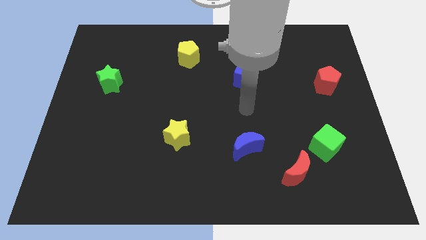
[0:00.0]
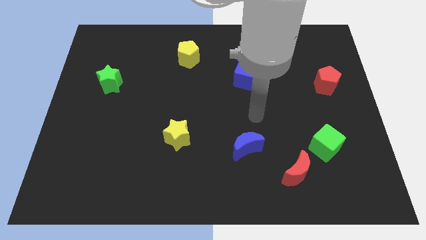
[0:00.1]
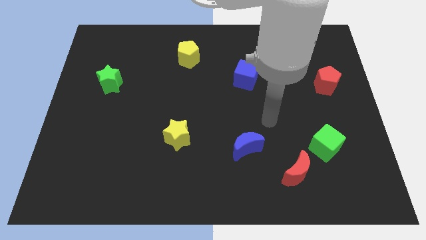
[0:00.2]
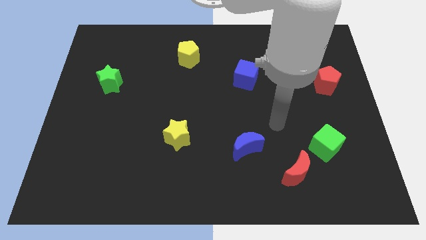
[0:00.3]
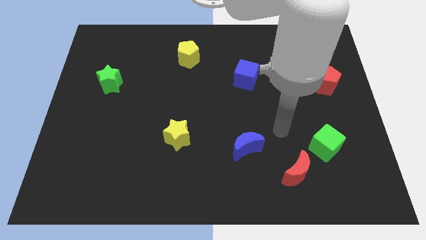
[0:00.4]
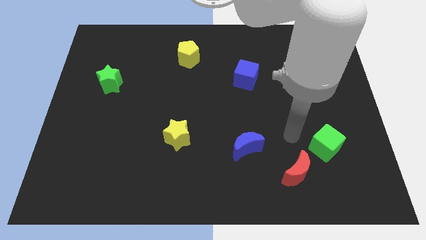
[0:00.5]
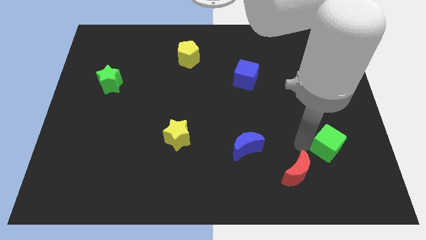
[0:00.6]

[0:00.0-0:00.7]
separate the red moon from the green cube

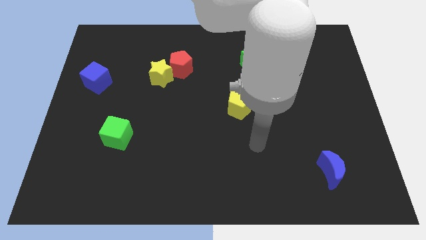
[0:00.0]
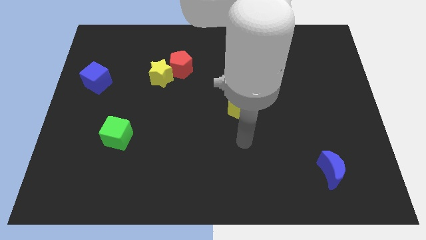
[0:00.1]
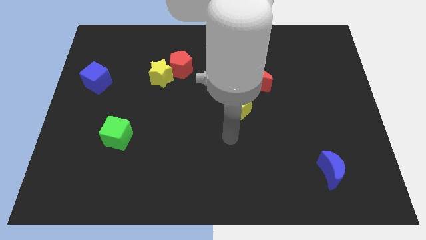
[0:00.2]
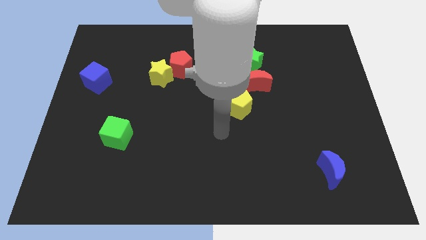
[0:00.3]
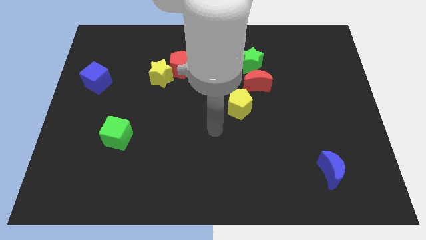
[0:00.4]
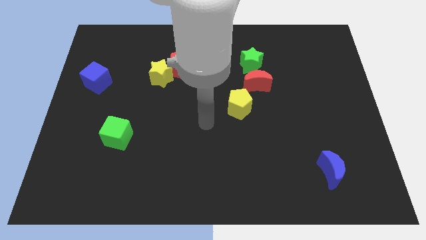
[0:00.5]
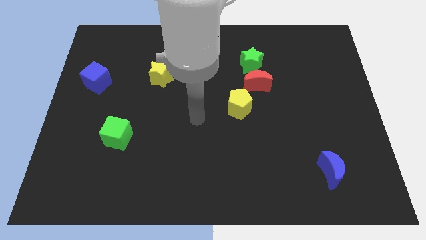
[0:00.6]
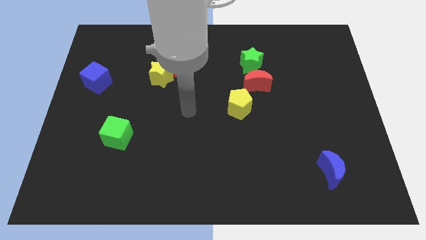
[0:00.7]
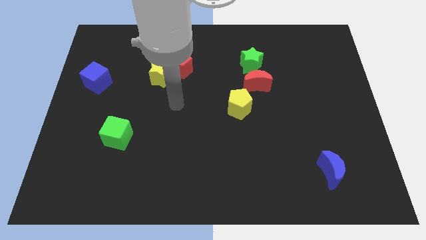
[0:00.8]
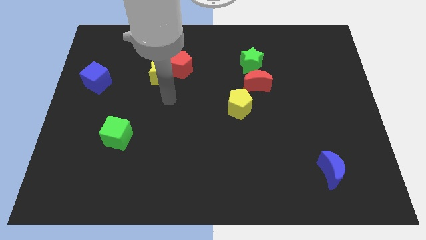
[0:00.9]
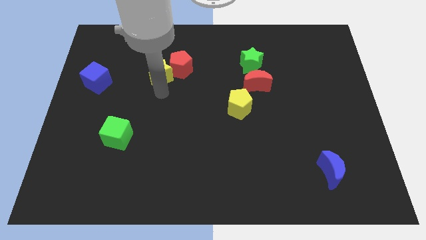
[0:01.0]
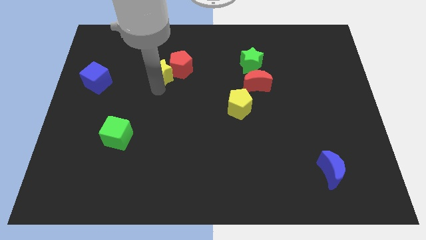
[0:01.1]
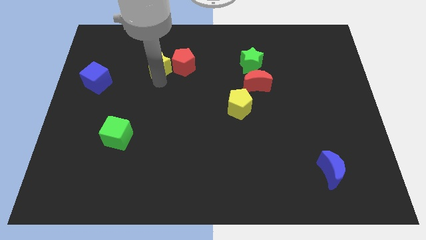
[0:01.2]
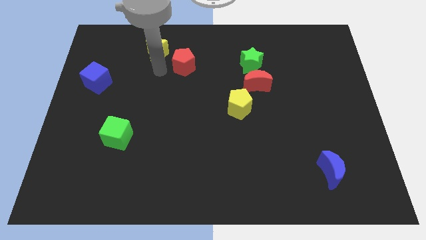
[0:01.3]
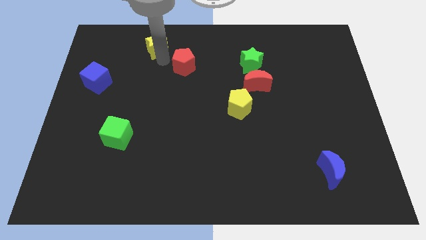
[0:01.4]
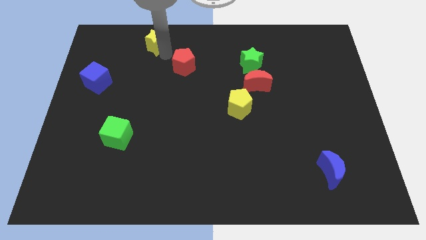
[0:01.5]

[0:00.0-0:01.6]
separate the red pentagon from the yellow star

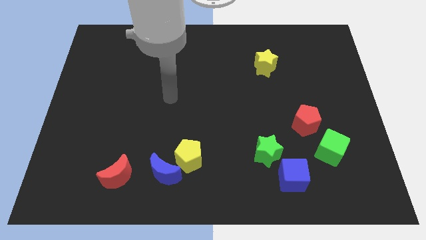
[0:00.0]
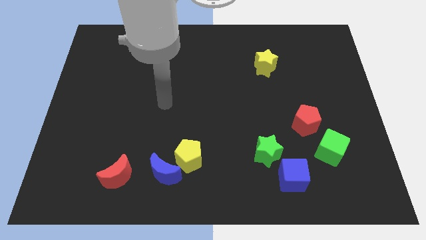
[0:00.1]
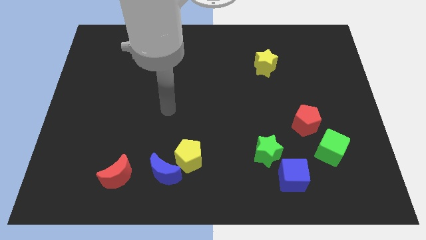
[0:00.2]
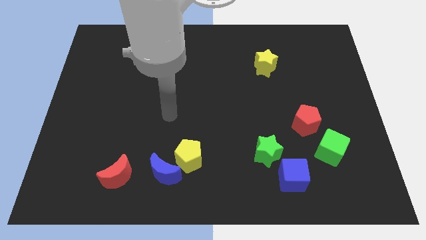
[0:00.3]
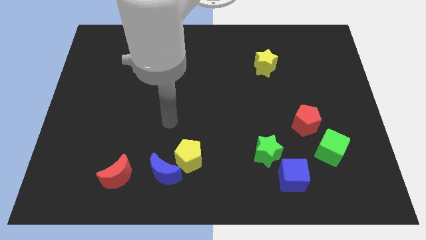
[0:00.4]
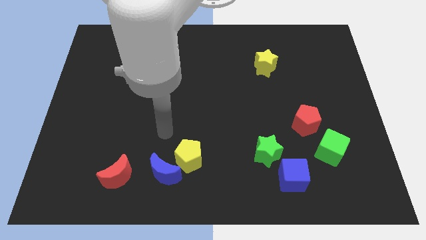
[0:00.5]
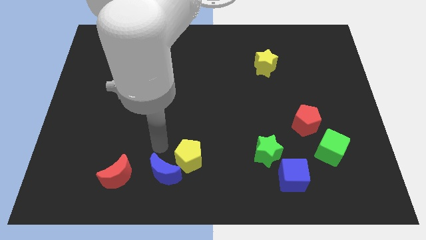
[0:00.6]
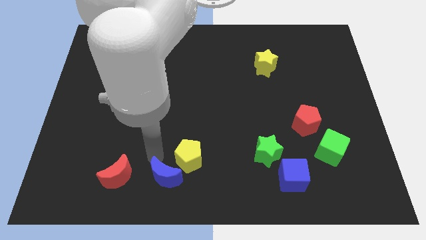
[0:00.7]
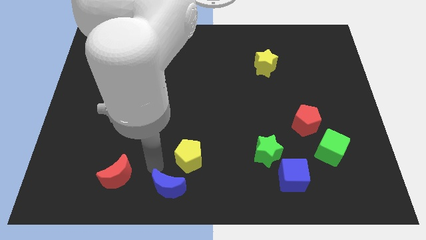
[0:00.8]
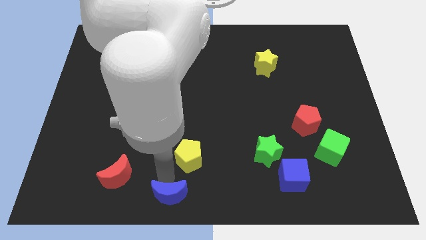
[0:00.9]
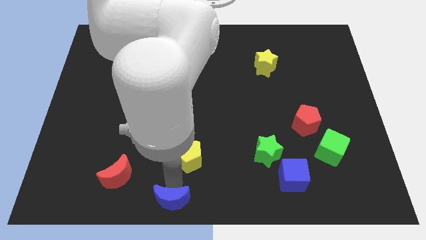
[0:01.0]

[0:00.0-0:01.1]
move the yellow pentagon away from the blue moon

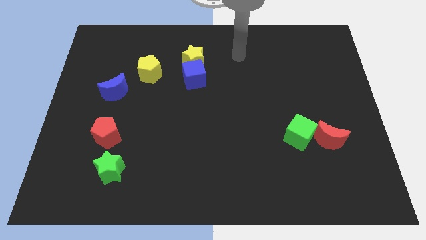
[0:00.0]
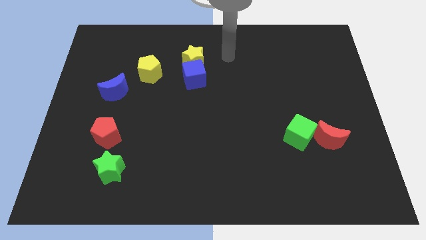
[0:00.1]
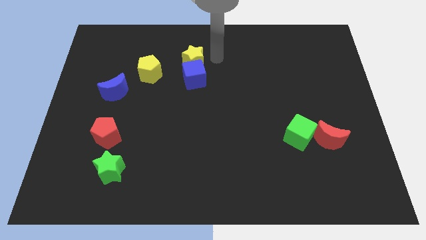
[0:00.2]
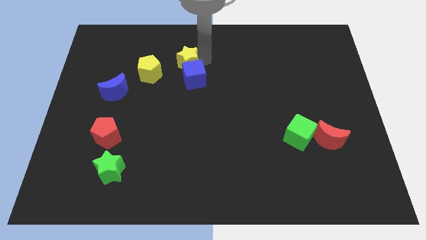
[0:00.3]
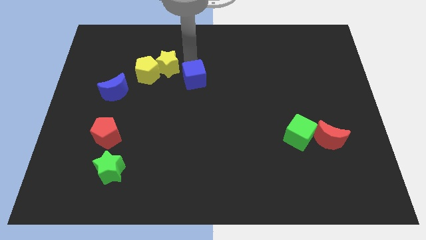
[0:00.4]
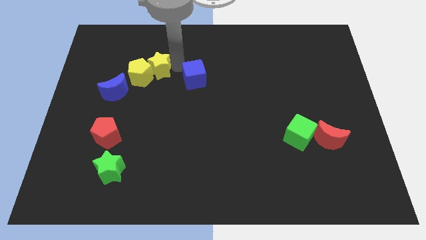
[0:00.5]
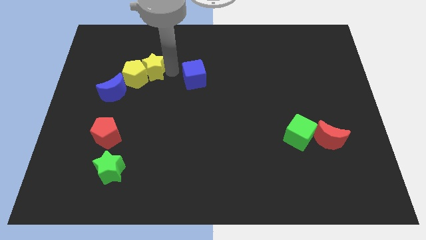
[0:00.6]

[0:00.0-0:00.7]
pull the blue cube apart from the yellow star

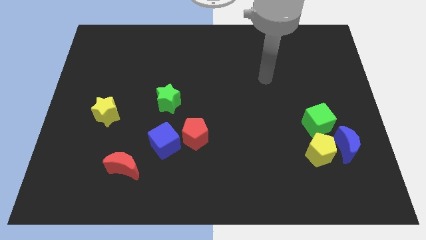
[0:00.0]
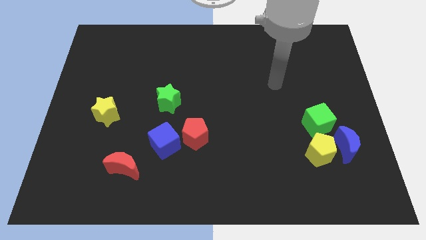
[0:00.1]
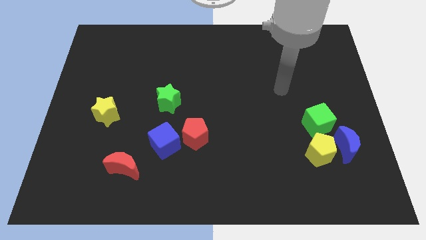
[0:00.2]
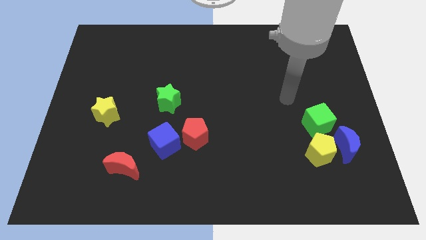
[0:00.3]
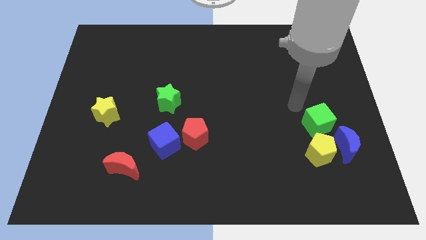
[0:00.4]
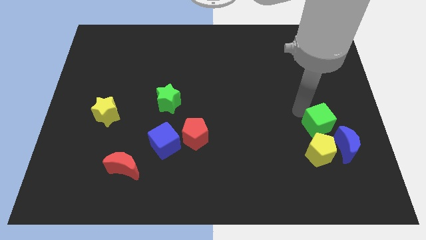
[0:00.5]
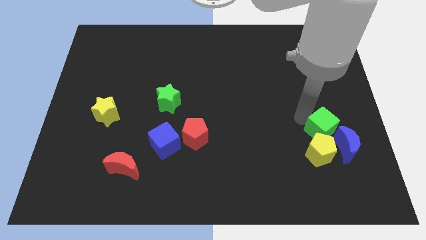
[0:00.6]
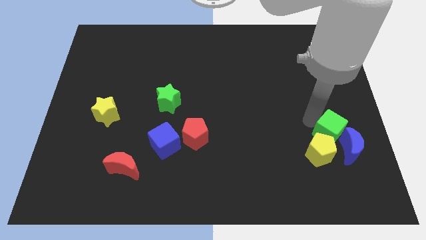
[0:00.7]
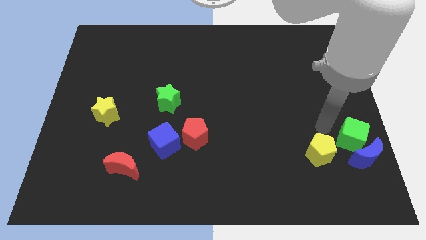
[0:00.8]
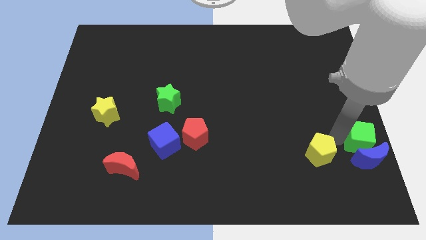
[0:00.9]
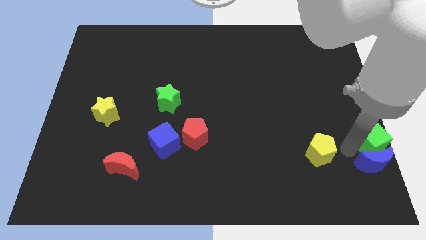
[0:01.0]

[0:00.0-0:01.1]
separate the yellow pentagon from the blue moon and green cube

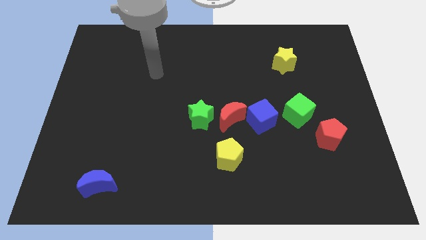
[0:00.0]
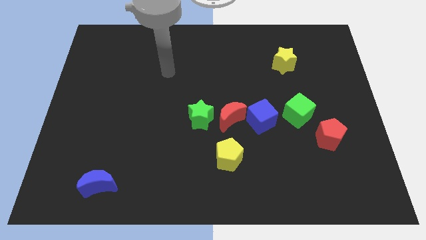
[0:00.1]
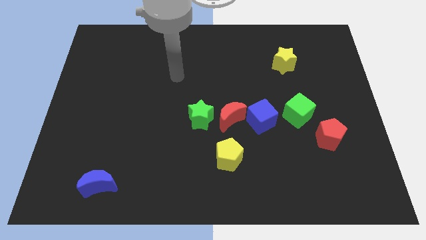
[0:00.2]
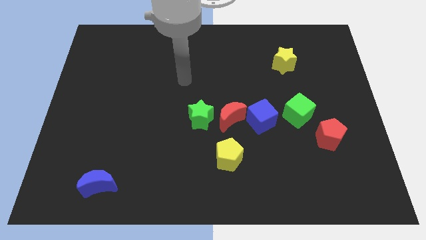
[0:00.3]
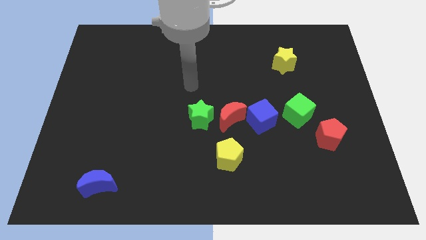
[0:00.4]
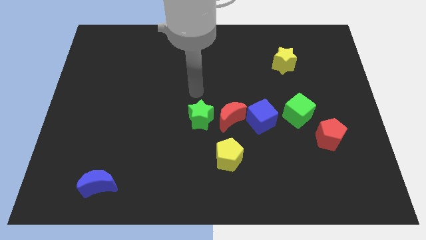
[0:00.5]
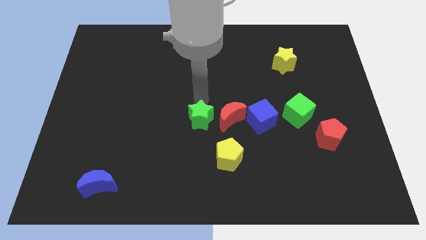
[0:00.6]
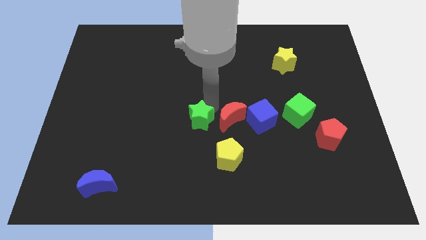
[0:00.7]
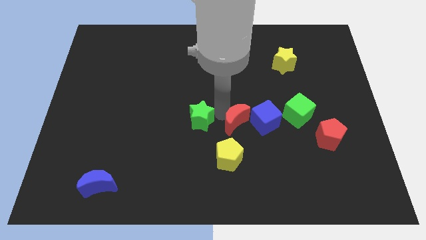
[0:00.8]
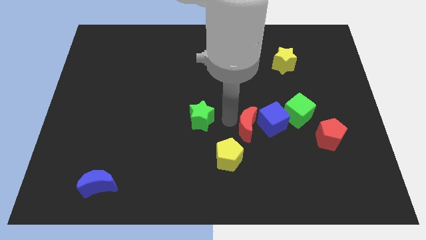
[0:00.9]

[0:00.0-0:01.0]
move the green star away from the red moon

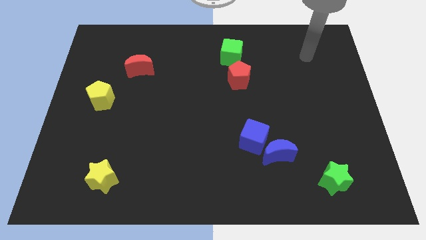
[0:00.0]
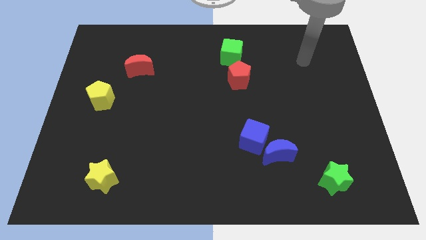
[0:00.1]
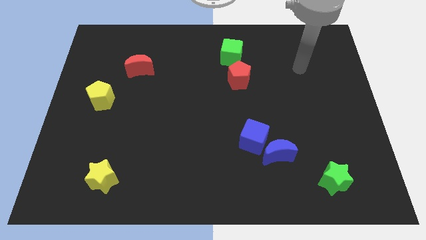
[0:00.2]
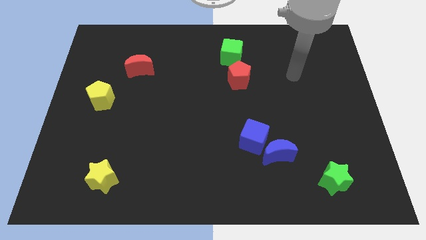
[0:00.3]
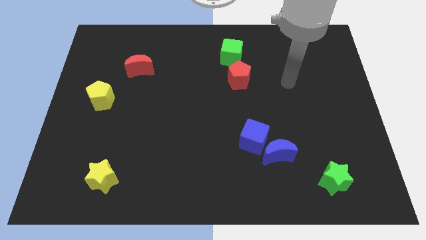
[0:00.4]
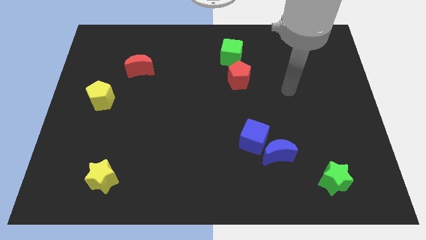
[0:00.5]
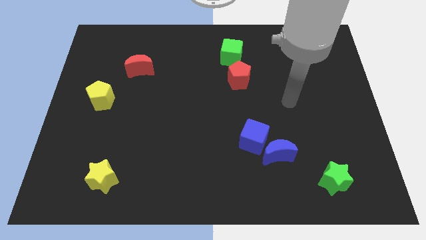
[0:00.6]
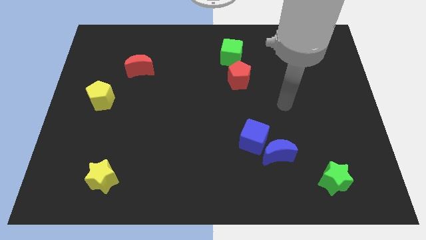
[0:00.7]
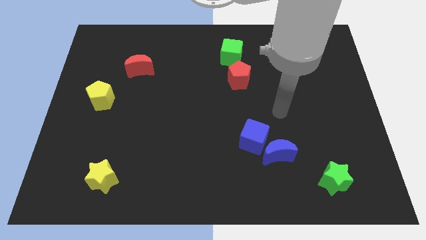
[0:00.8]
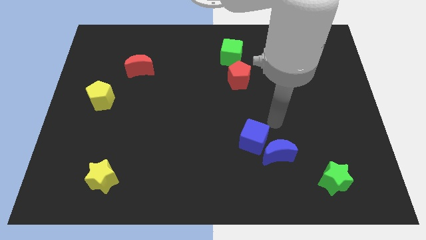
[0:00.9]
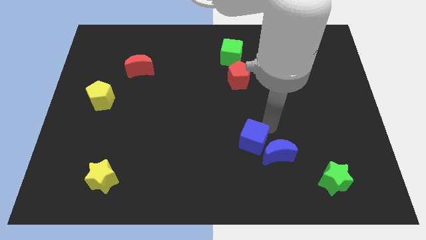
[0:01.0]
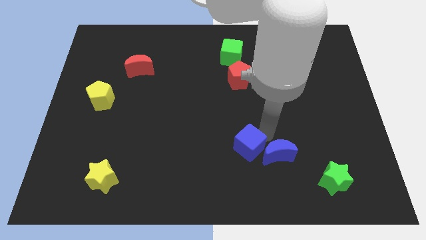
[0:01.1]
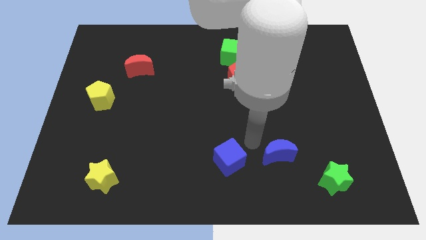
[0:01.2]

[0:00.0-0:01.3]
move the blue moon away from the blue cube

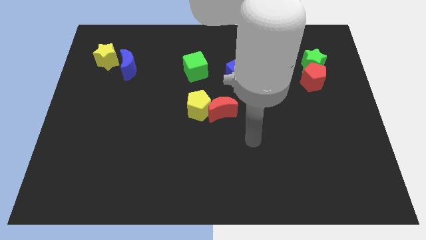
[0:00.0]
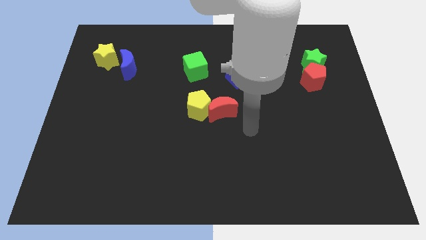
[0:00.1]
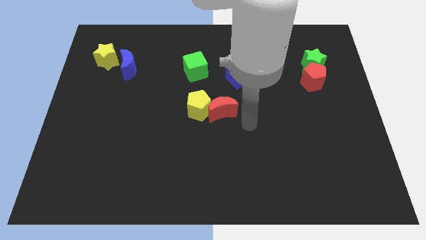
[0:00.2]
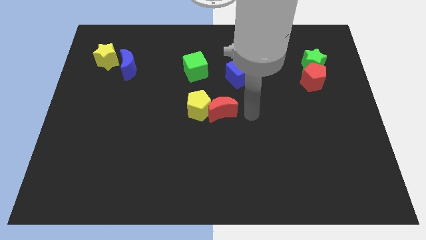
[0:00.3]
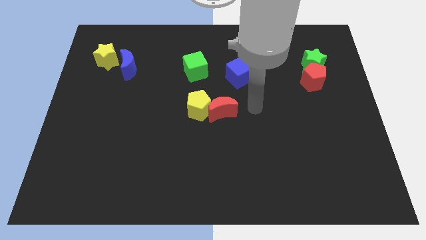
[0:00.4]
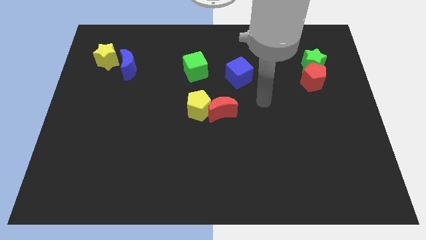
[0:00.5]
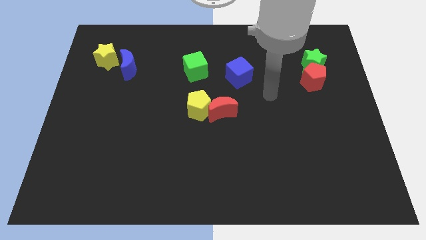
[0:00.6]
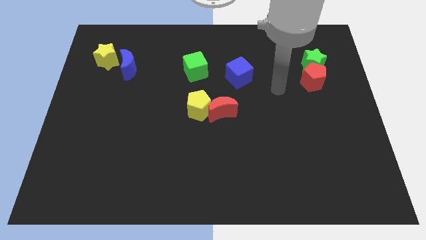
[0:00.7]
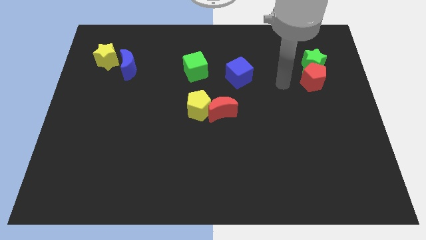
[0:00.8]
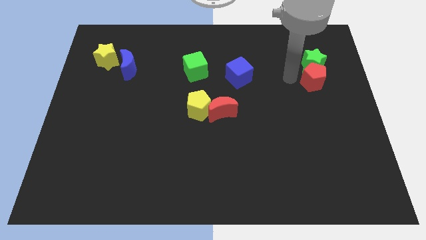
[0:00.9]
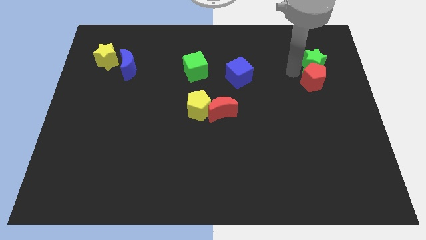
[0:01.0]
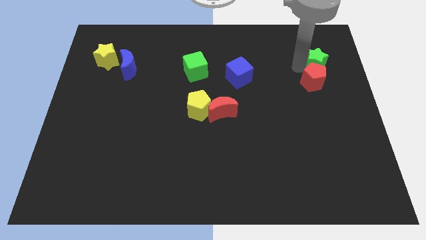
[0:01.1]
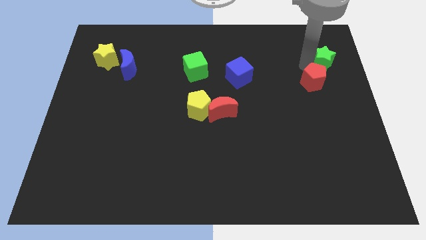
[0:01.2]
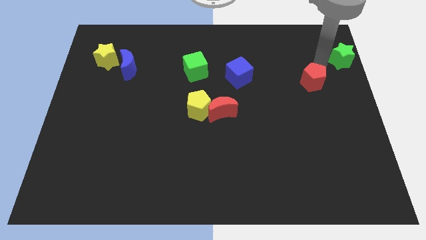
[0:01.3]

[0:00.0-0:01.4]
separate the red pentagon from the green star

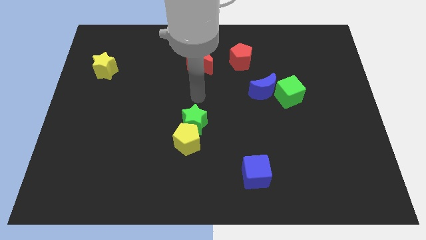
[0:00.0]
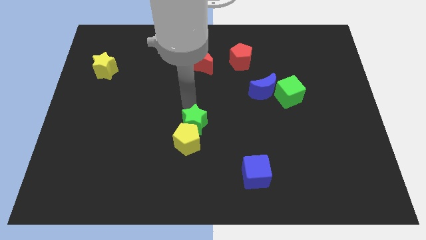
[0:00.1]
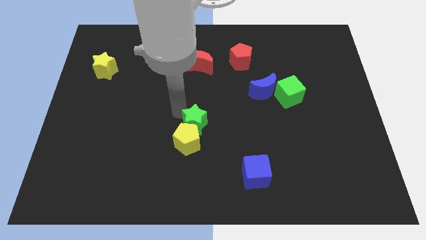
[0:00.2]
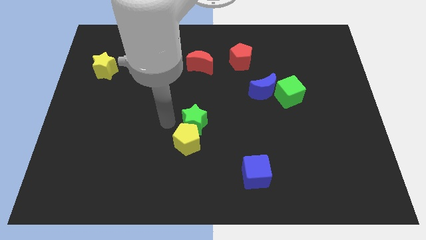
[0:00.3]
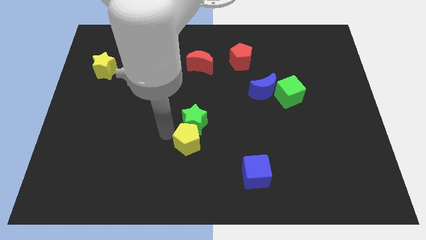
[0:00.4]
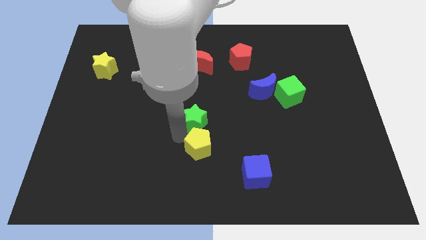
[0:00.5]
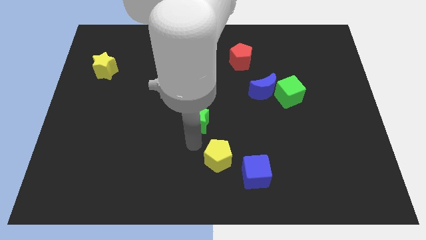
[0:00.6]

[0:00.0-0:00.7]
pull the green star apart from the yellow pentagon
